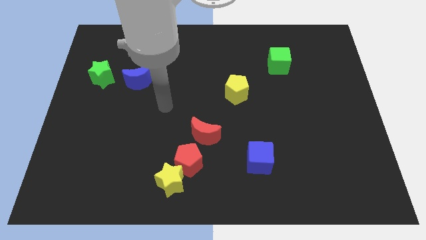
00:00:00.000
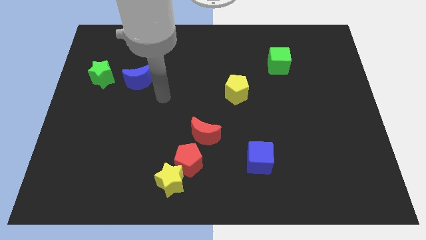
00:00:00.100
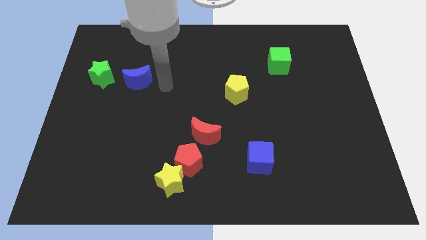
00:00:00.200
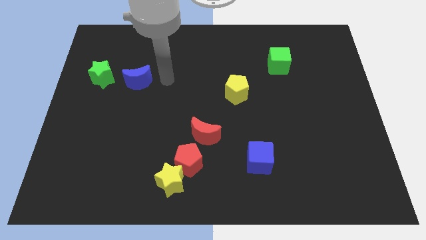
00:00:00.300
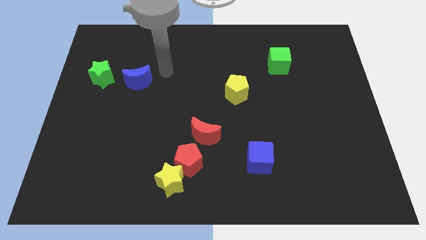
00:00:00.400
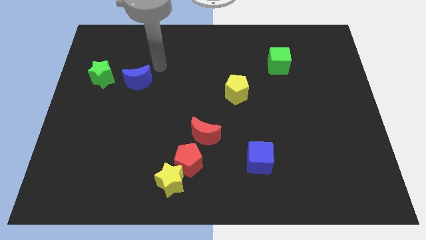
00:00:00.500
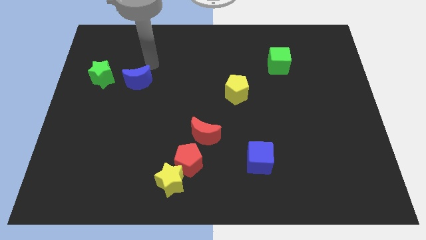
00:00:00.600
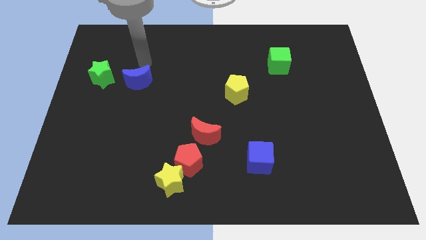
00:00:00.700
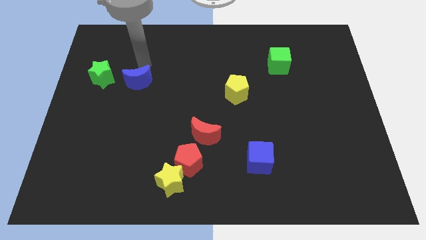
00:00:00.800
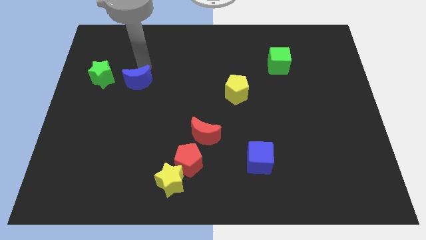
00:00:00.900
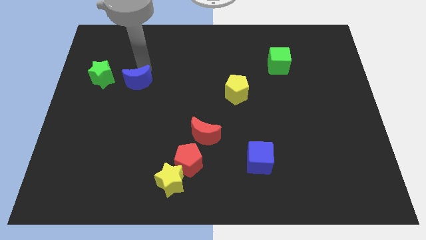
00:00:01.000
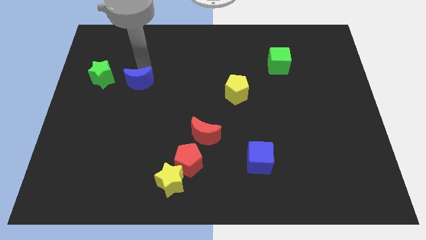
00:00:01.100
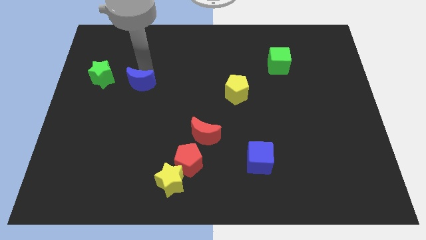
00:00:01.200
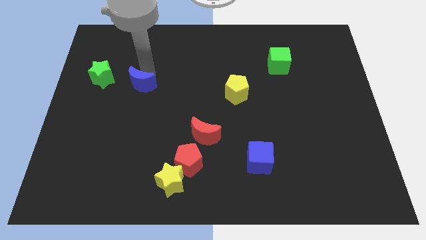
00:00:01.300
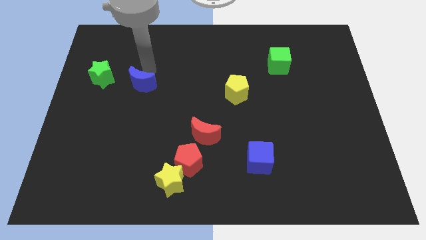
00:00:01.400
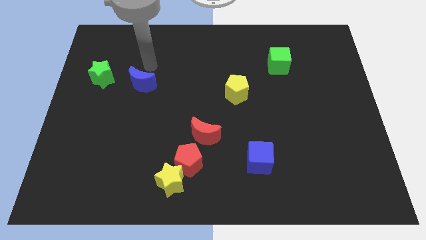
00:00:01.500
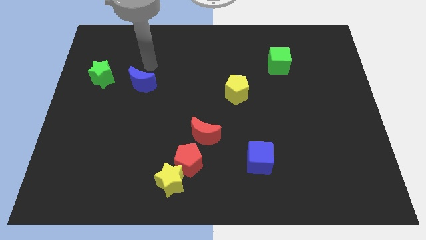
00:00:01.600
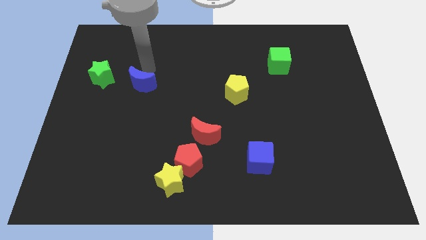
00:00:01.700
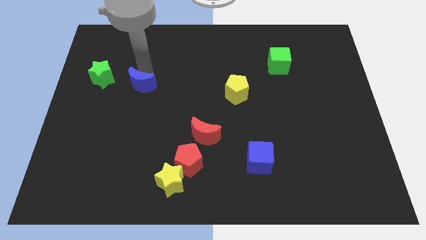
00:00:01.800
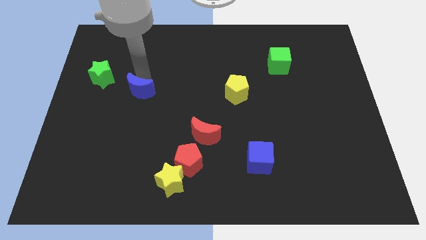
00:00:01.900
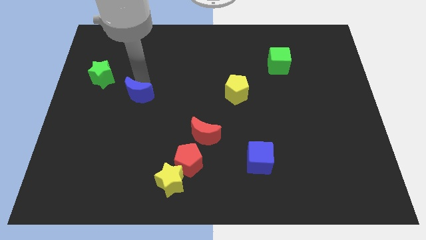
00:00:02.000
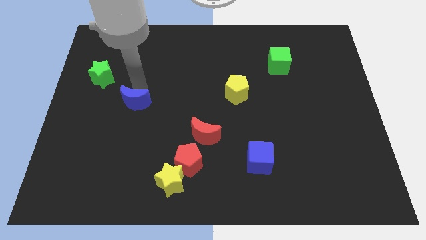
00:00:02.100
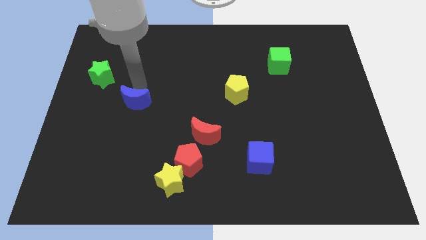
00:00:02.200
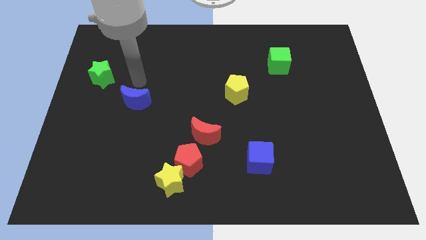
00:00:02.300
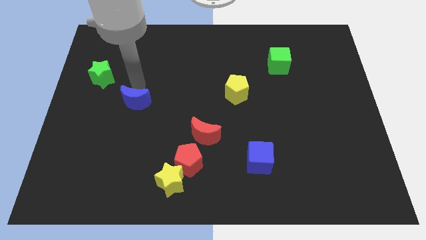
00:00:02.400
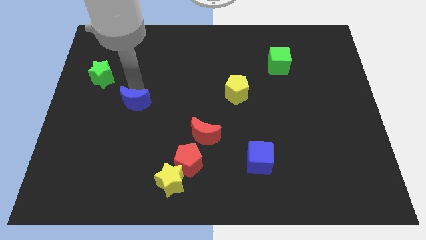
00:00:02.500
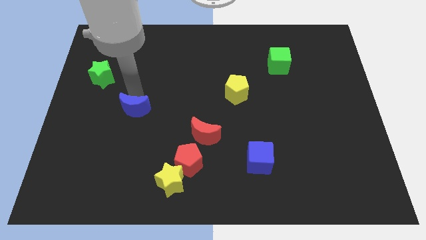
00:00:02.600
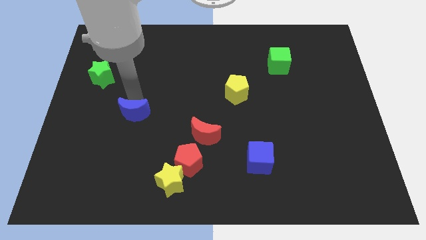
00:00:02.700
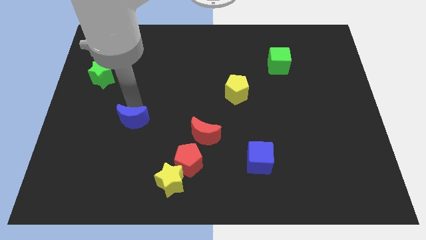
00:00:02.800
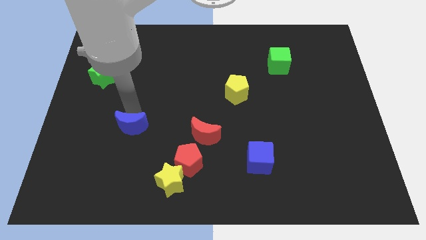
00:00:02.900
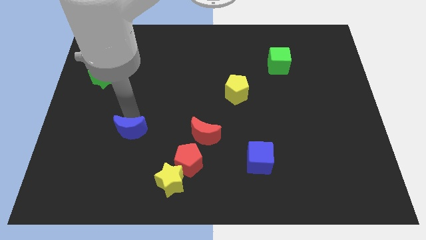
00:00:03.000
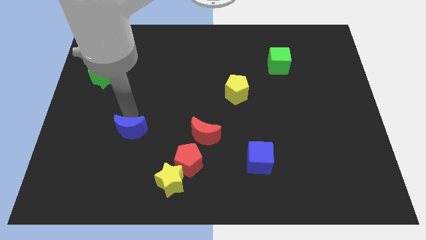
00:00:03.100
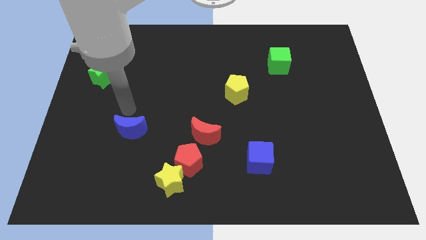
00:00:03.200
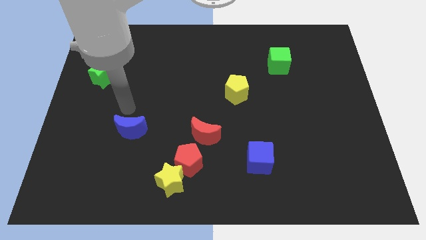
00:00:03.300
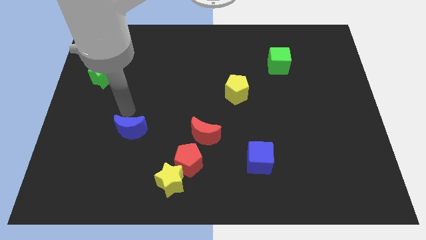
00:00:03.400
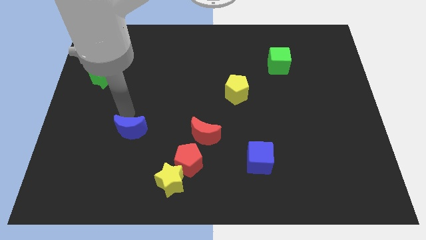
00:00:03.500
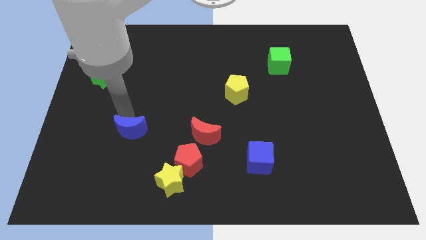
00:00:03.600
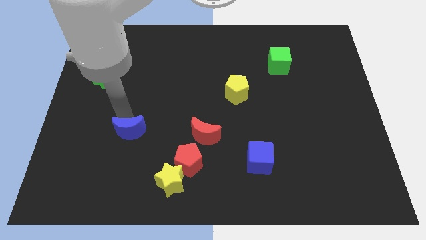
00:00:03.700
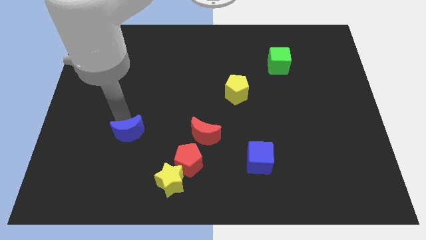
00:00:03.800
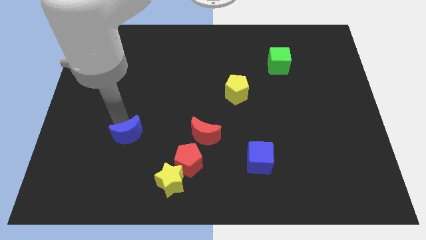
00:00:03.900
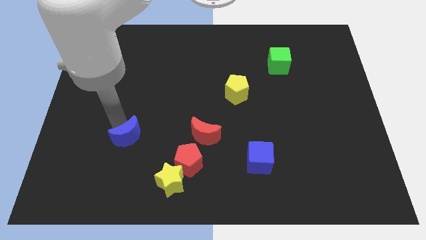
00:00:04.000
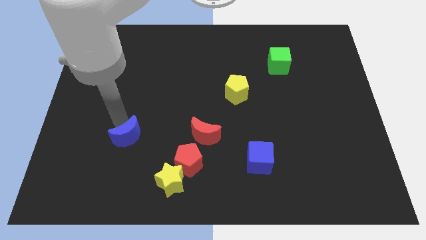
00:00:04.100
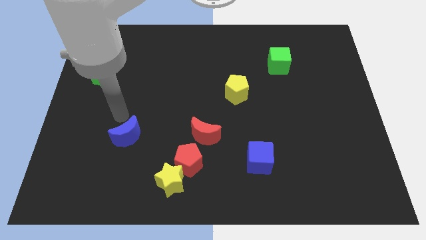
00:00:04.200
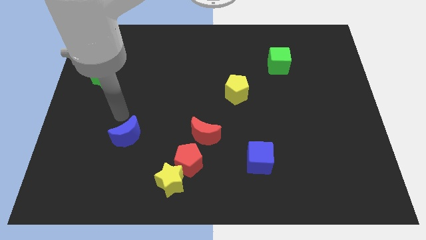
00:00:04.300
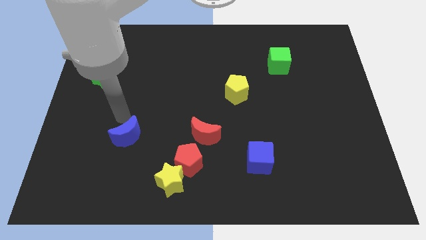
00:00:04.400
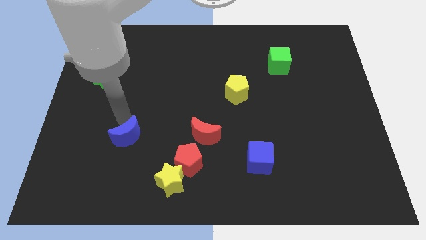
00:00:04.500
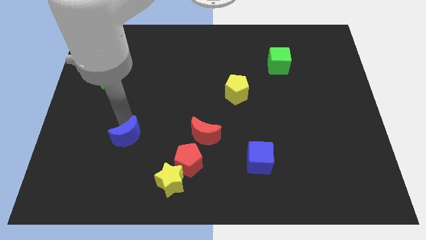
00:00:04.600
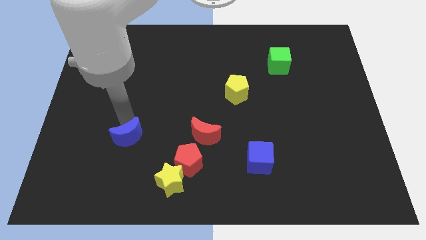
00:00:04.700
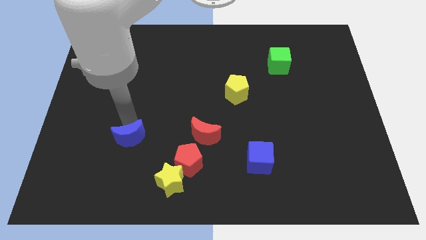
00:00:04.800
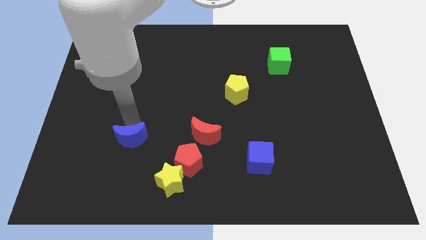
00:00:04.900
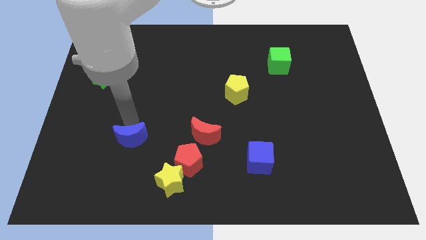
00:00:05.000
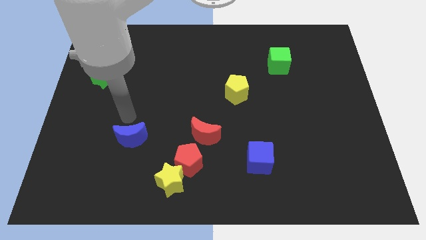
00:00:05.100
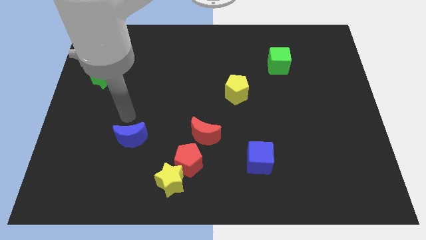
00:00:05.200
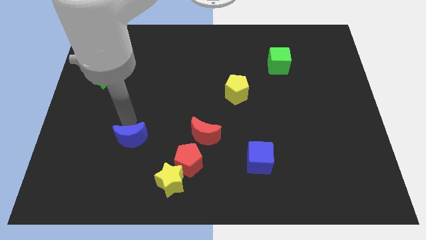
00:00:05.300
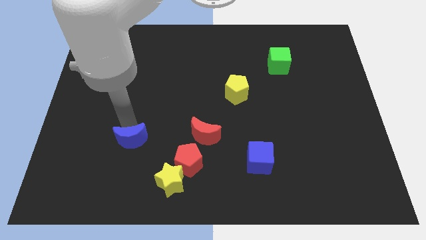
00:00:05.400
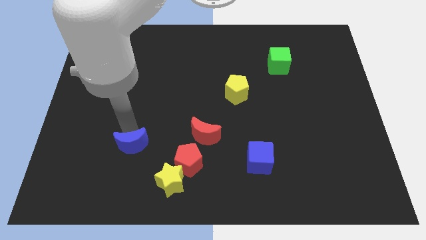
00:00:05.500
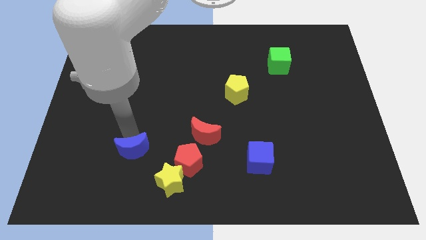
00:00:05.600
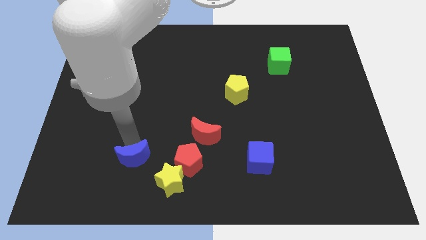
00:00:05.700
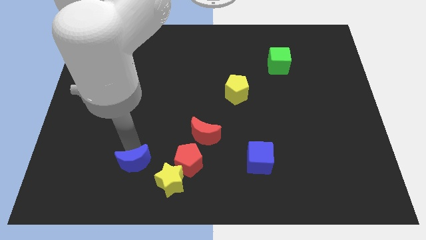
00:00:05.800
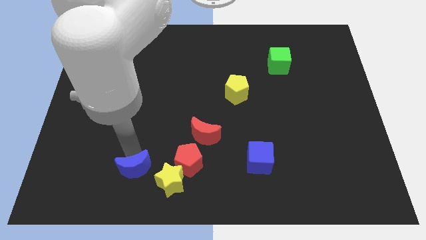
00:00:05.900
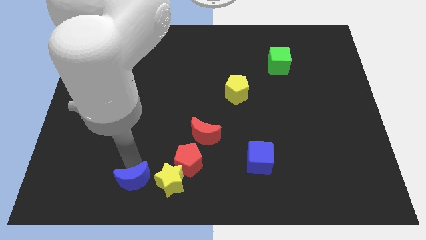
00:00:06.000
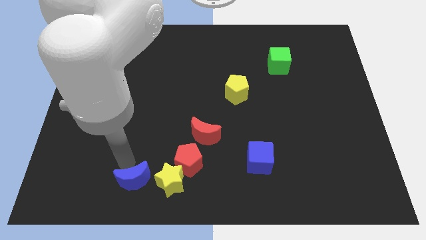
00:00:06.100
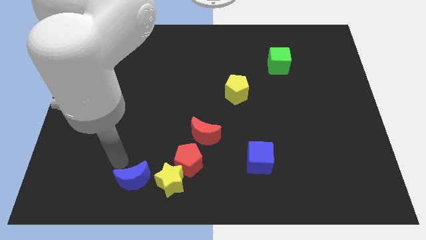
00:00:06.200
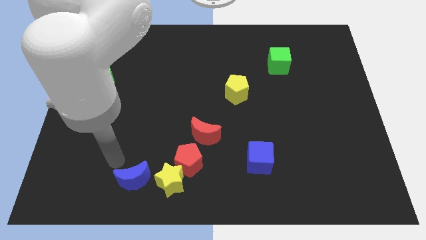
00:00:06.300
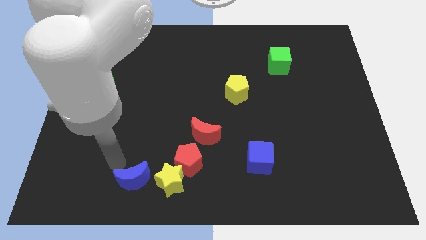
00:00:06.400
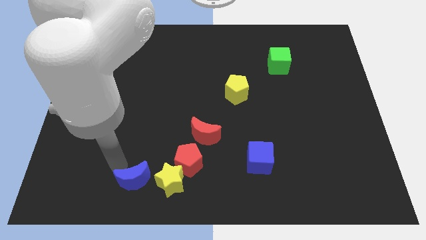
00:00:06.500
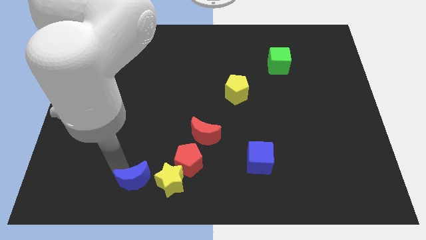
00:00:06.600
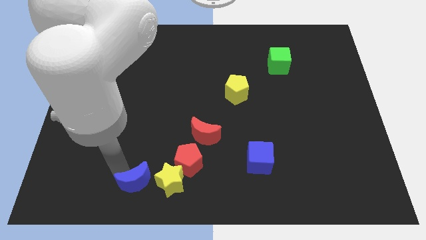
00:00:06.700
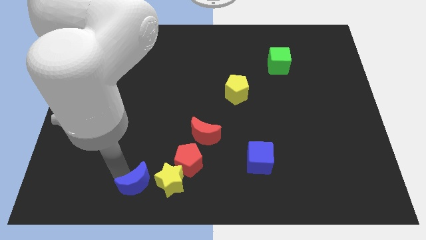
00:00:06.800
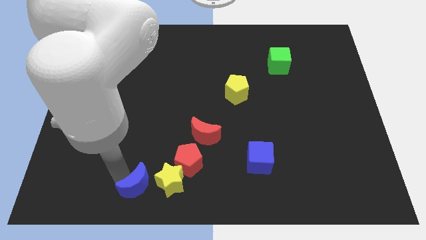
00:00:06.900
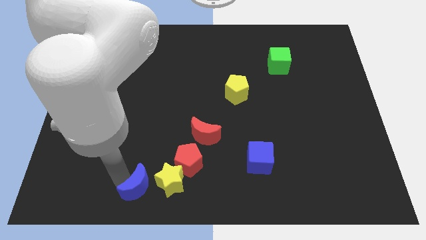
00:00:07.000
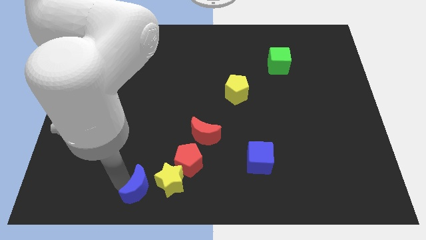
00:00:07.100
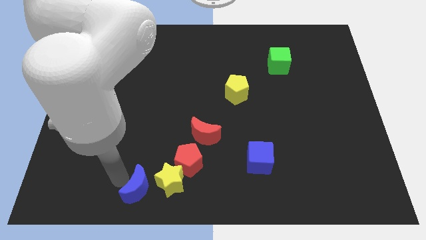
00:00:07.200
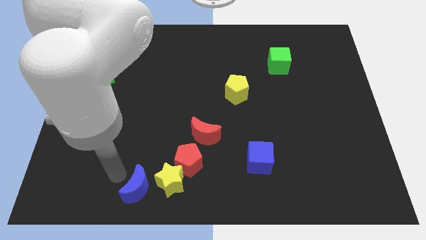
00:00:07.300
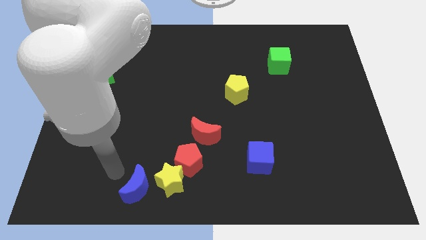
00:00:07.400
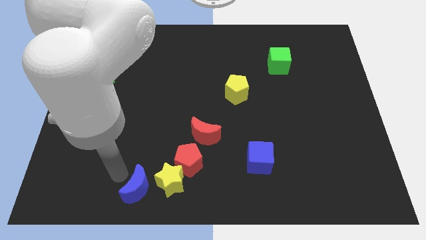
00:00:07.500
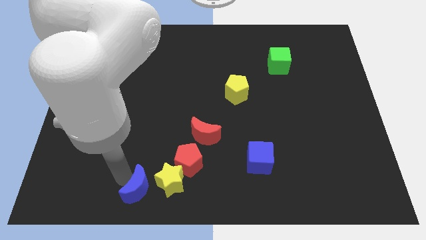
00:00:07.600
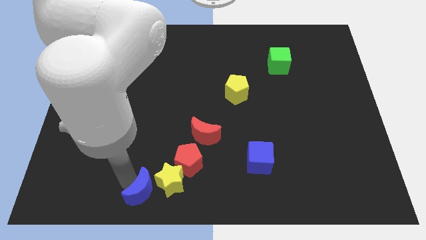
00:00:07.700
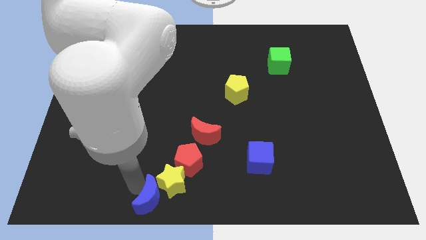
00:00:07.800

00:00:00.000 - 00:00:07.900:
put the blue moon to the bottom

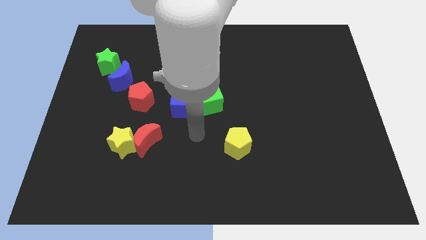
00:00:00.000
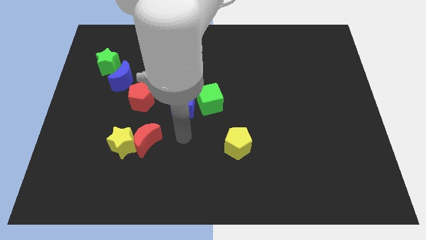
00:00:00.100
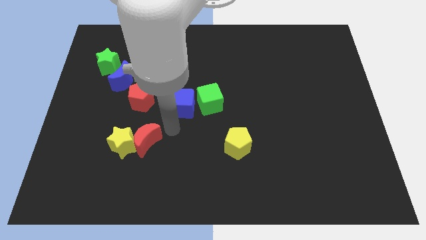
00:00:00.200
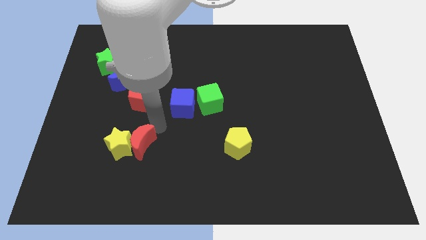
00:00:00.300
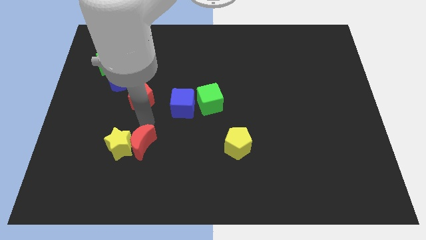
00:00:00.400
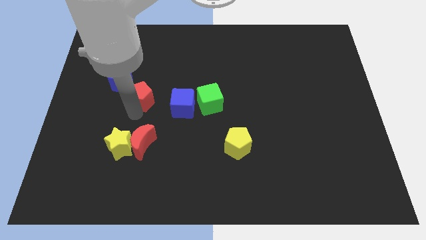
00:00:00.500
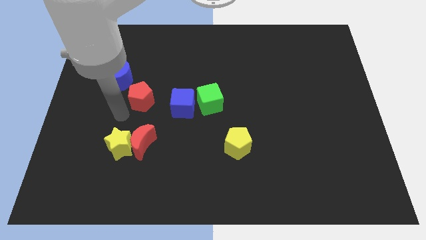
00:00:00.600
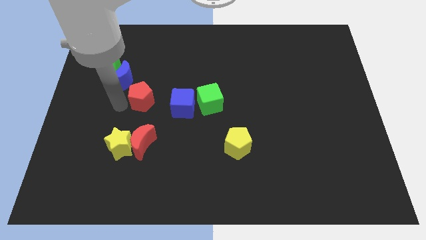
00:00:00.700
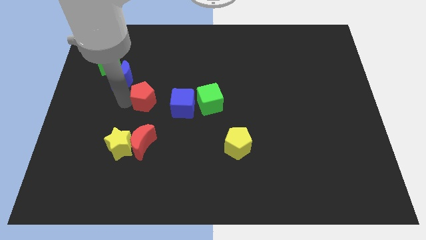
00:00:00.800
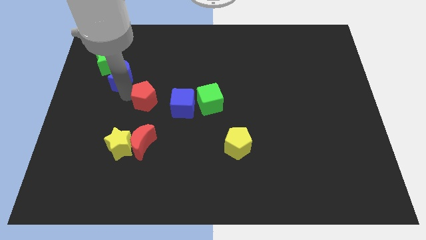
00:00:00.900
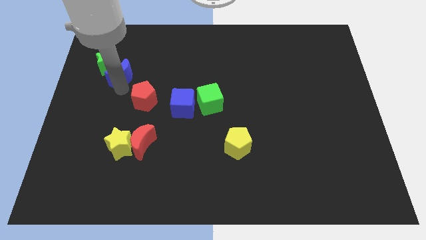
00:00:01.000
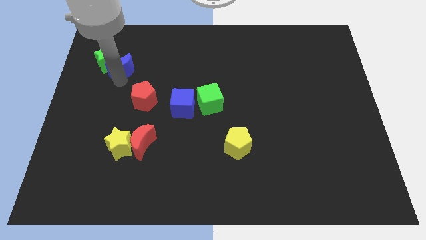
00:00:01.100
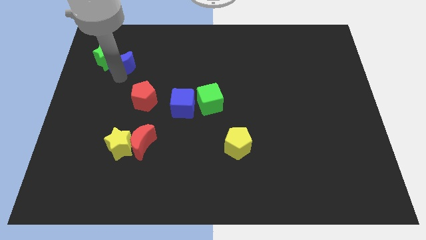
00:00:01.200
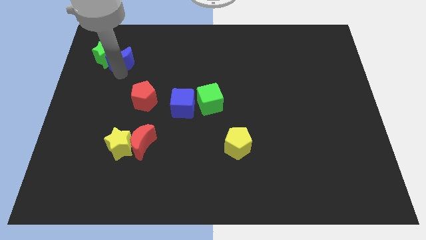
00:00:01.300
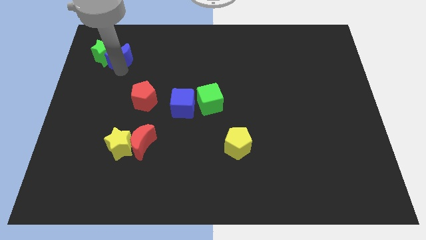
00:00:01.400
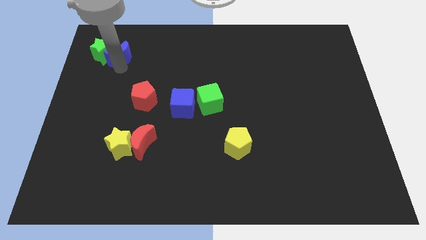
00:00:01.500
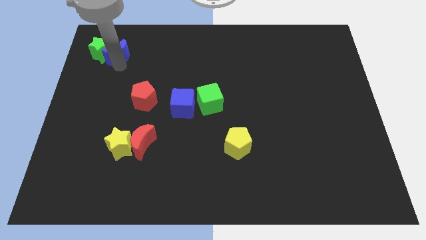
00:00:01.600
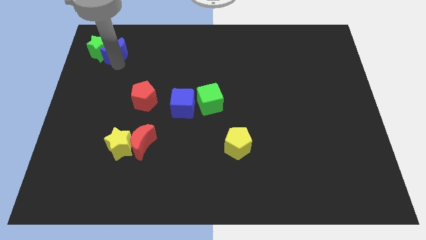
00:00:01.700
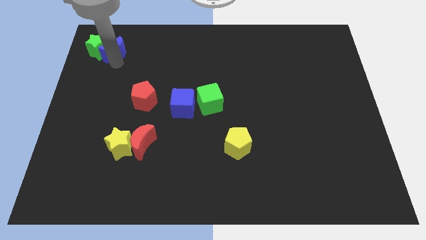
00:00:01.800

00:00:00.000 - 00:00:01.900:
move the green star to the top left corner
